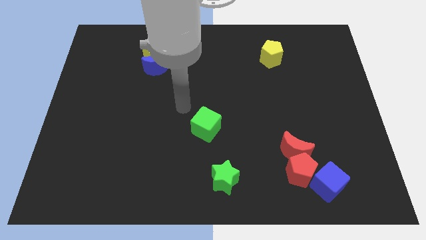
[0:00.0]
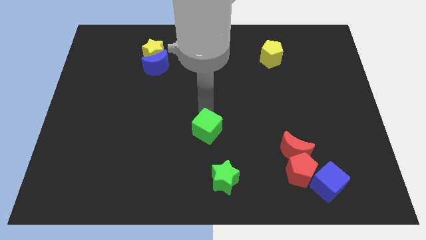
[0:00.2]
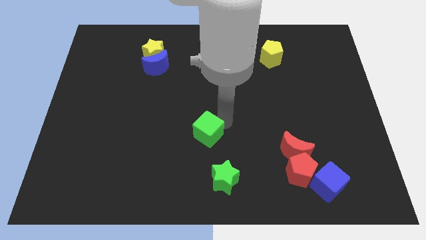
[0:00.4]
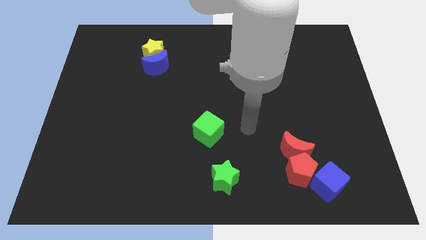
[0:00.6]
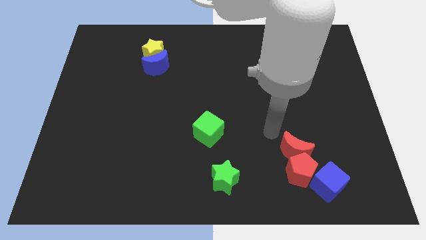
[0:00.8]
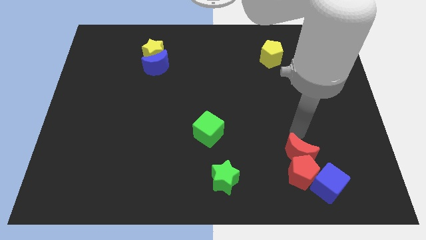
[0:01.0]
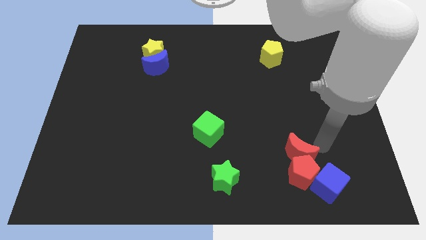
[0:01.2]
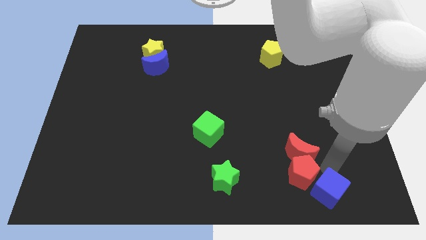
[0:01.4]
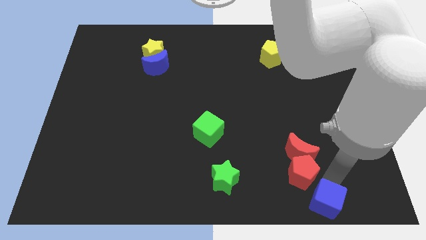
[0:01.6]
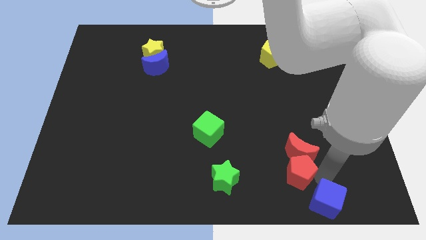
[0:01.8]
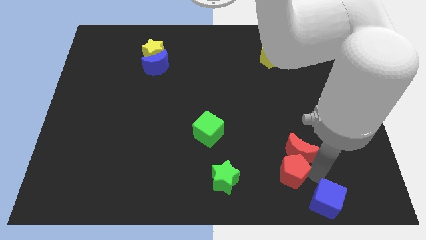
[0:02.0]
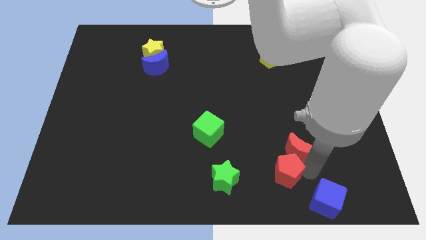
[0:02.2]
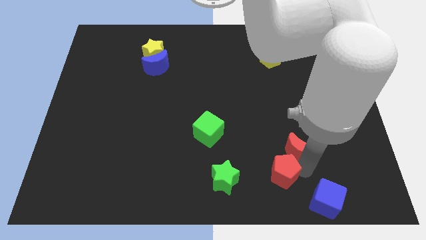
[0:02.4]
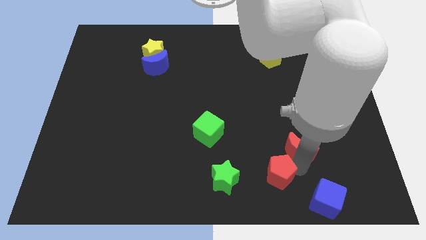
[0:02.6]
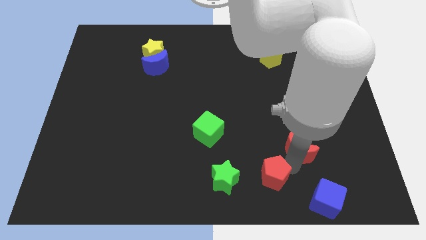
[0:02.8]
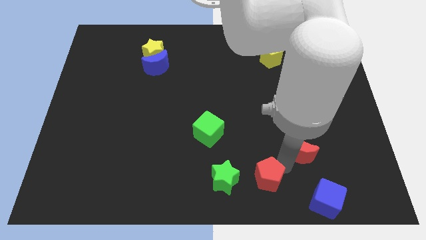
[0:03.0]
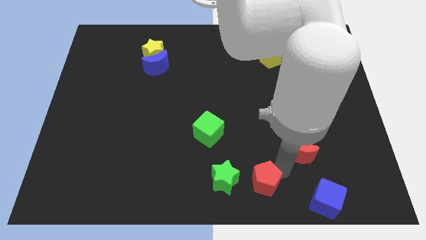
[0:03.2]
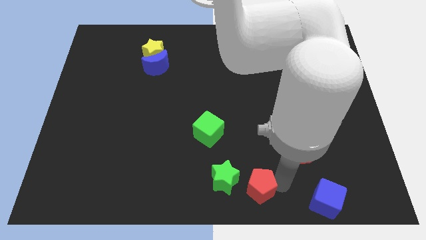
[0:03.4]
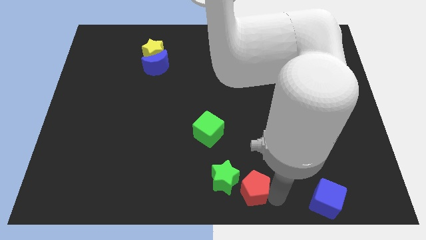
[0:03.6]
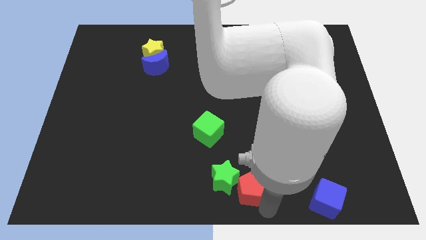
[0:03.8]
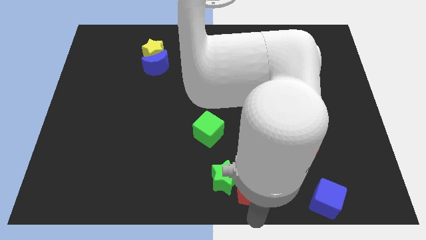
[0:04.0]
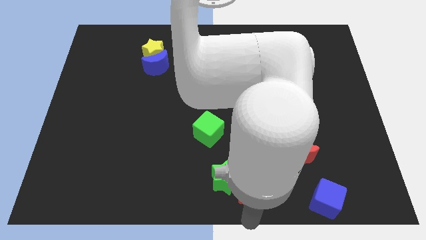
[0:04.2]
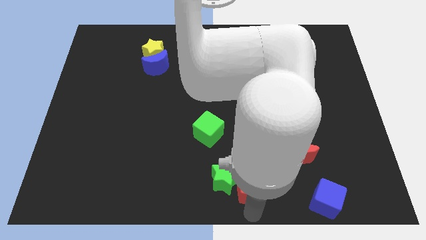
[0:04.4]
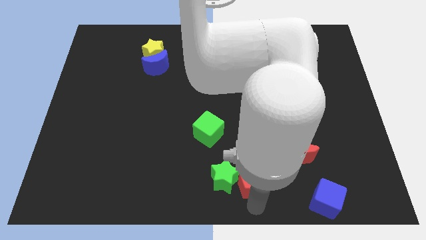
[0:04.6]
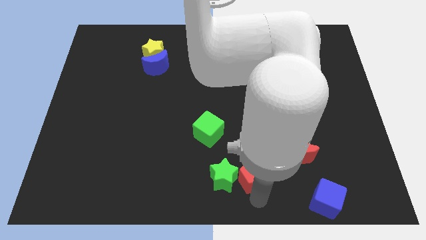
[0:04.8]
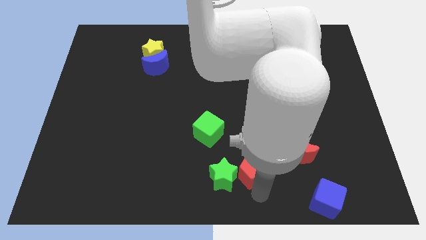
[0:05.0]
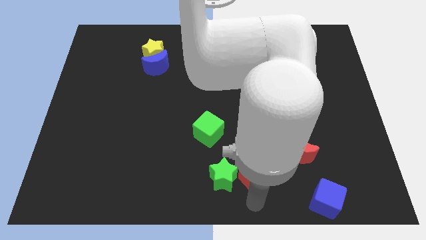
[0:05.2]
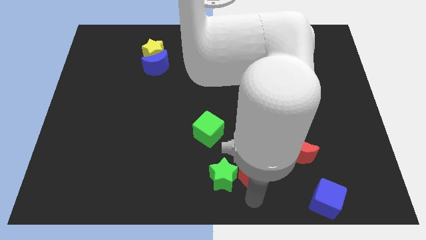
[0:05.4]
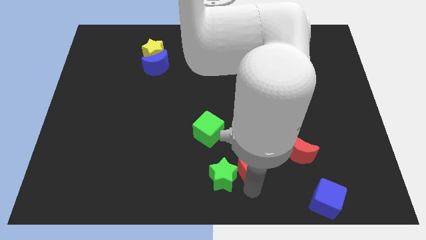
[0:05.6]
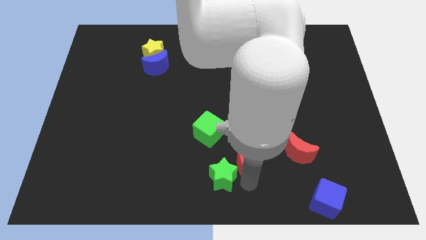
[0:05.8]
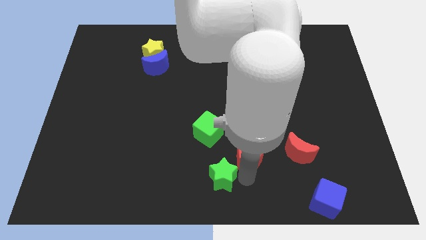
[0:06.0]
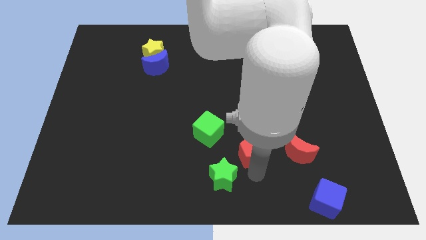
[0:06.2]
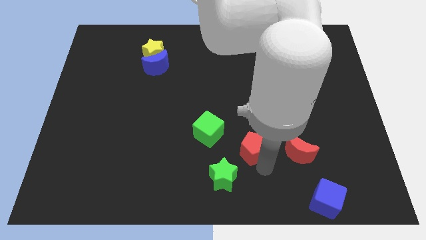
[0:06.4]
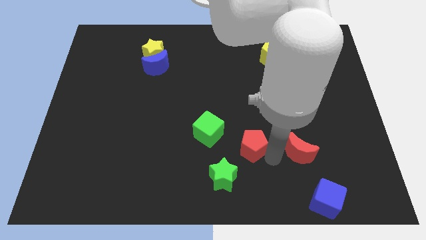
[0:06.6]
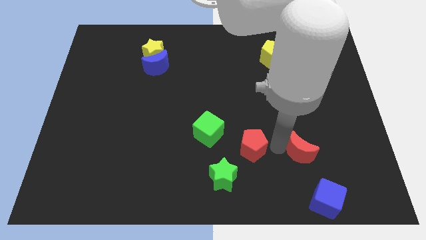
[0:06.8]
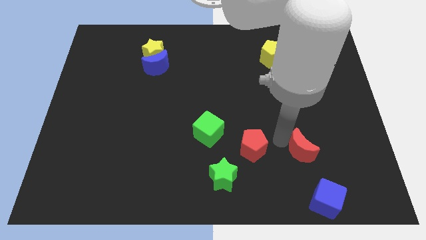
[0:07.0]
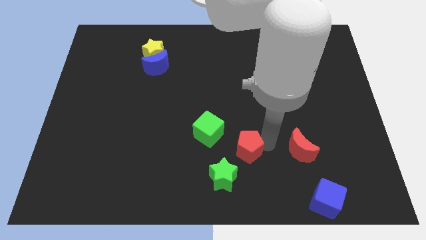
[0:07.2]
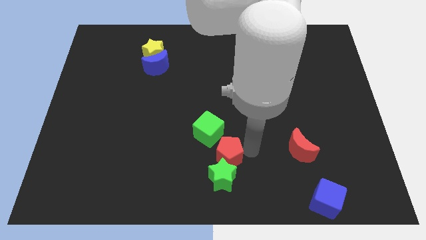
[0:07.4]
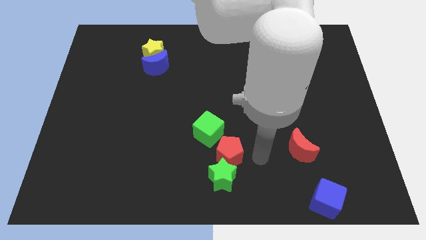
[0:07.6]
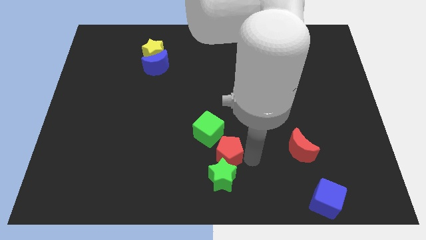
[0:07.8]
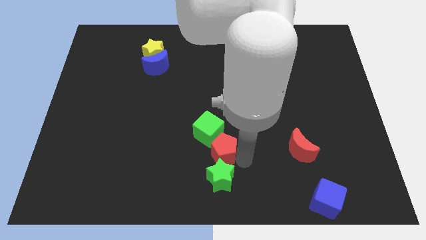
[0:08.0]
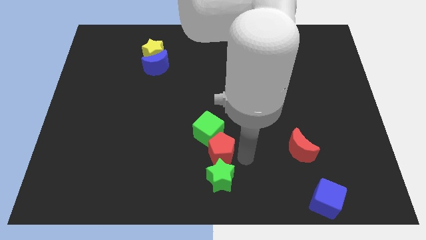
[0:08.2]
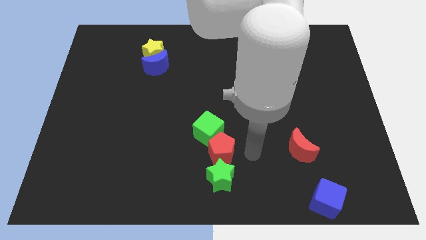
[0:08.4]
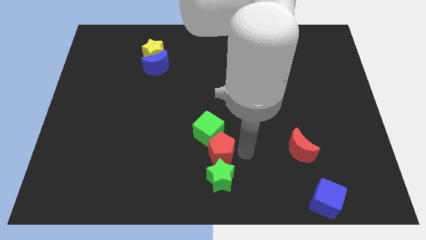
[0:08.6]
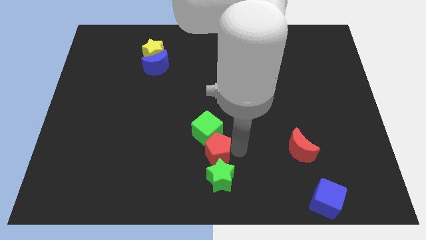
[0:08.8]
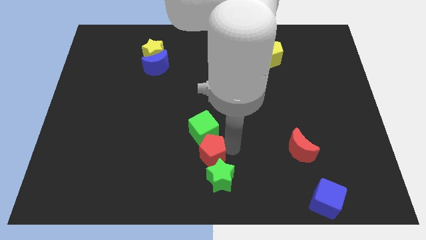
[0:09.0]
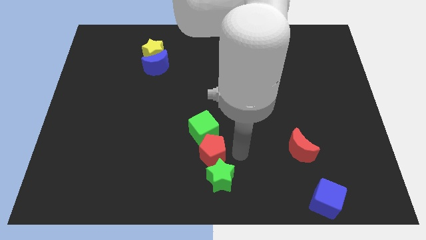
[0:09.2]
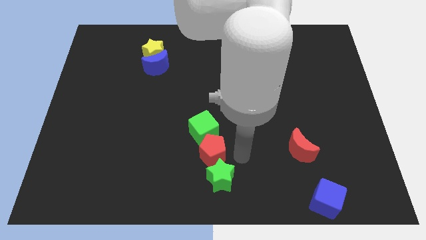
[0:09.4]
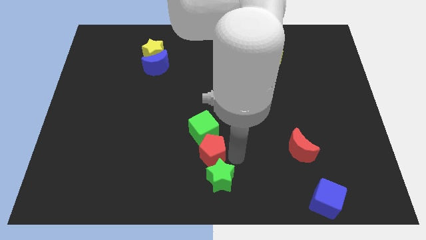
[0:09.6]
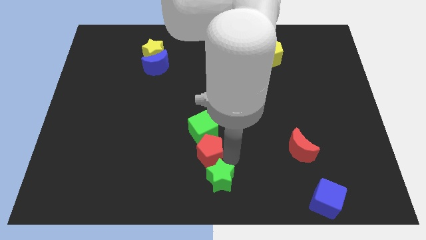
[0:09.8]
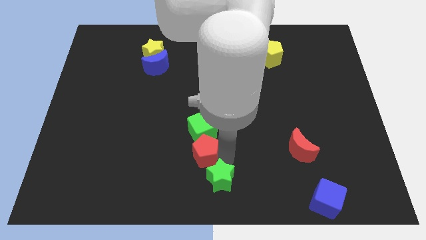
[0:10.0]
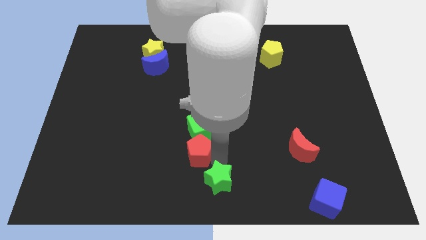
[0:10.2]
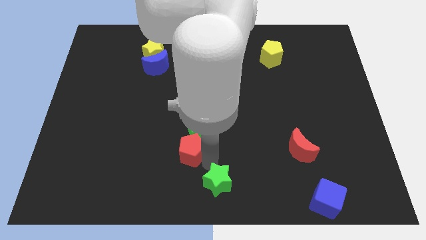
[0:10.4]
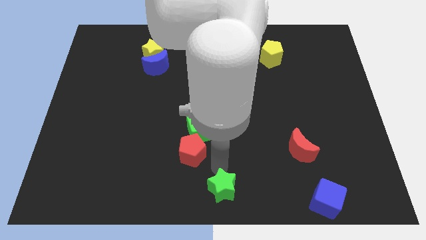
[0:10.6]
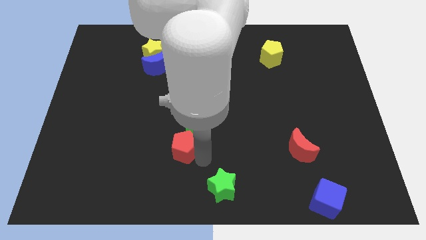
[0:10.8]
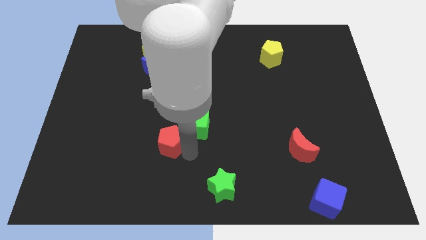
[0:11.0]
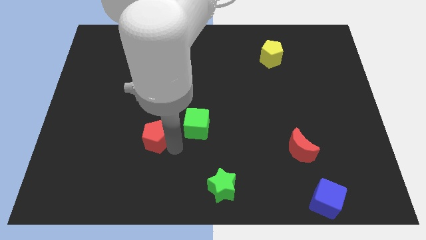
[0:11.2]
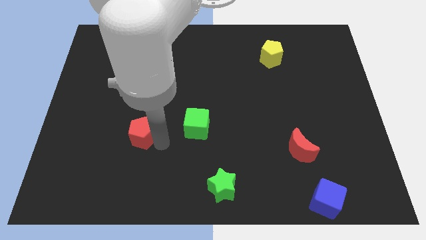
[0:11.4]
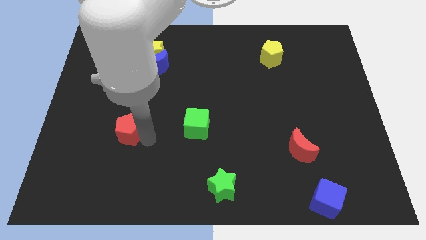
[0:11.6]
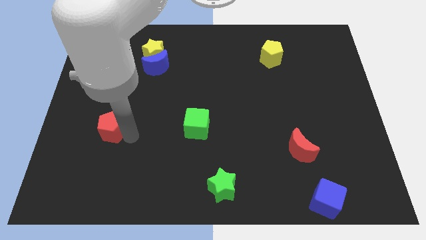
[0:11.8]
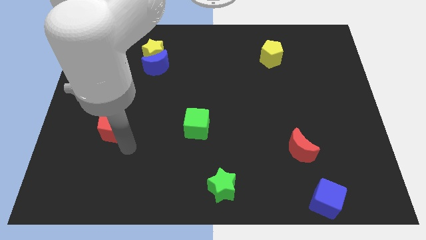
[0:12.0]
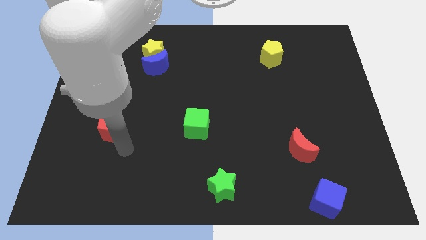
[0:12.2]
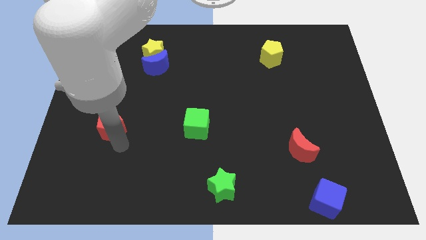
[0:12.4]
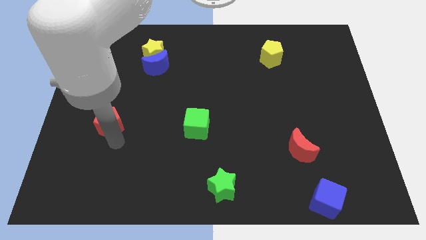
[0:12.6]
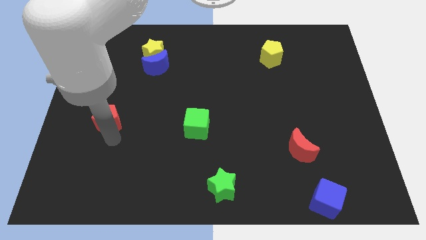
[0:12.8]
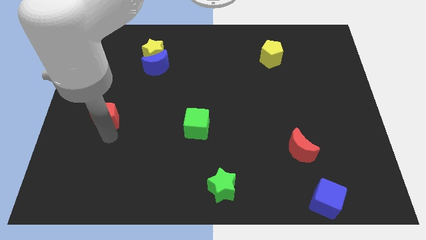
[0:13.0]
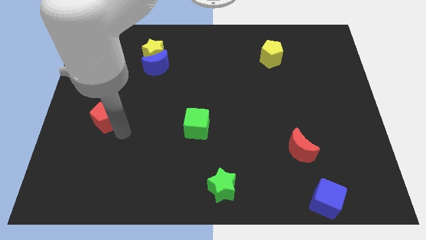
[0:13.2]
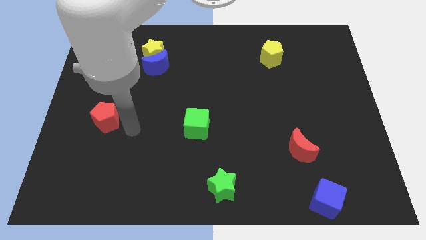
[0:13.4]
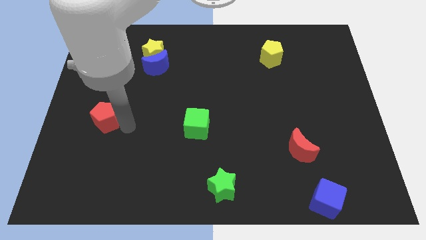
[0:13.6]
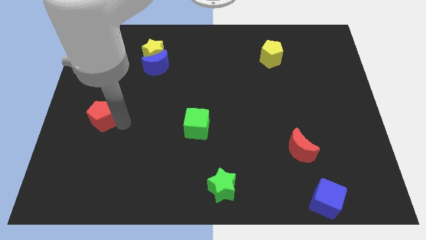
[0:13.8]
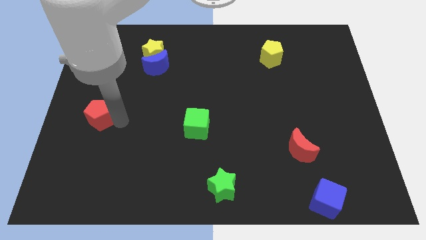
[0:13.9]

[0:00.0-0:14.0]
push the red pentagon to the left side

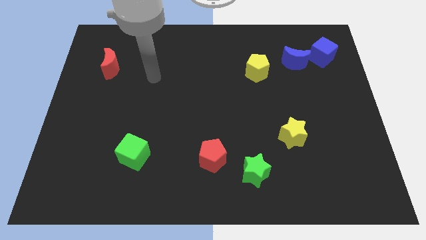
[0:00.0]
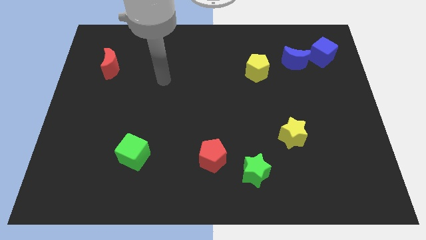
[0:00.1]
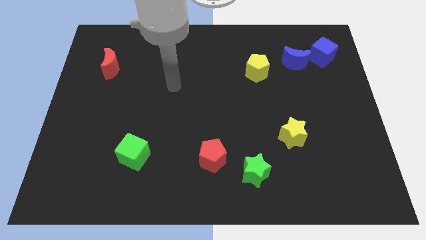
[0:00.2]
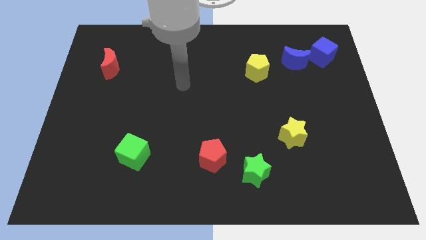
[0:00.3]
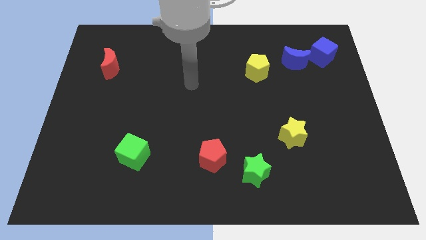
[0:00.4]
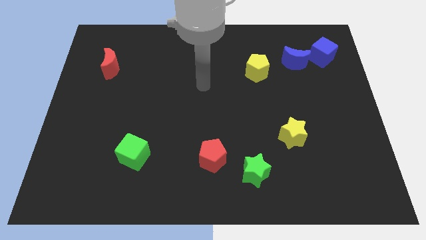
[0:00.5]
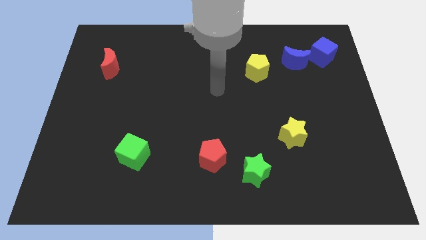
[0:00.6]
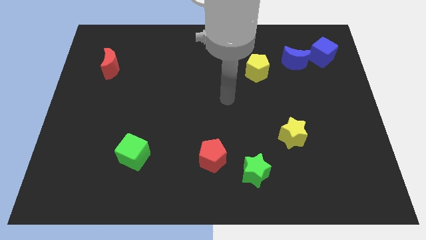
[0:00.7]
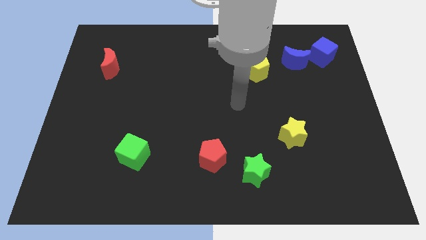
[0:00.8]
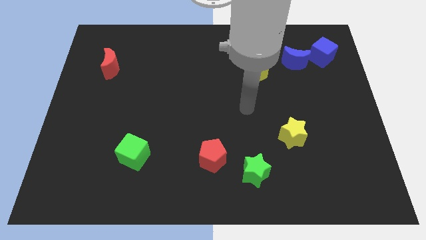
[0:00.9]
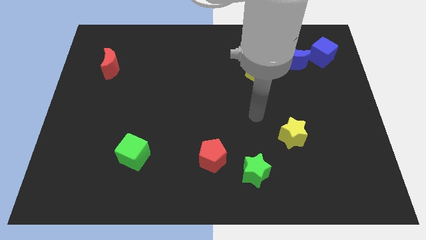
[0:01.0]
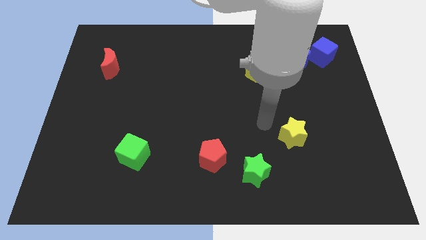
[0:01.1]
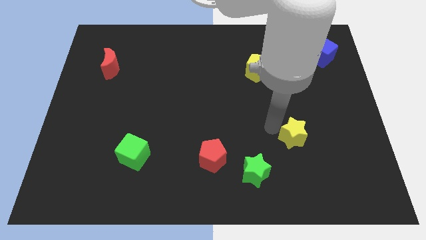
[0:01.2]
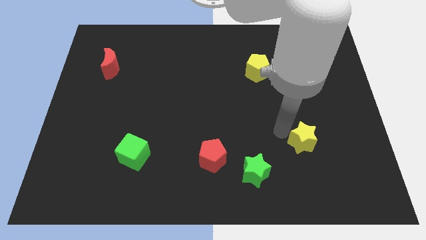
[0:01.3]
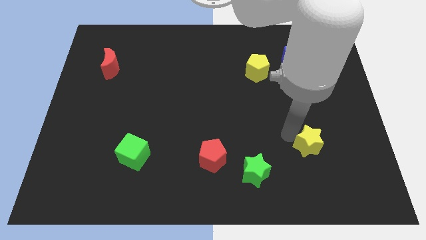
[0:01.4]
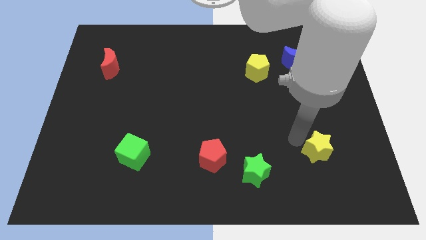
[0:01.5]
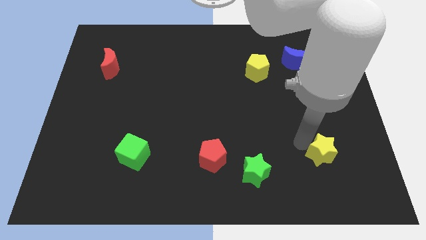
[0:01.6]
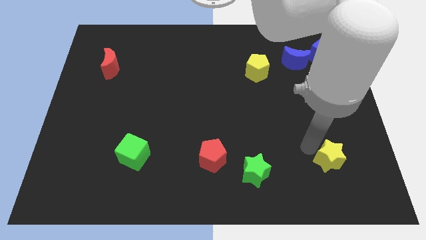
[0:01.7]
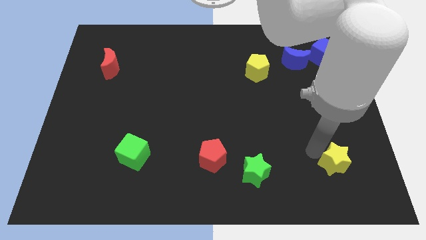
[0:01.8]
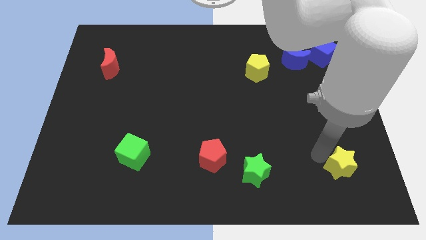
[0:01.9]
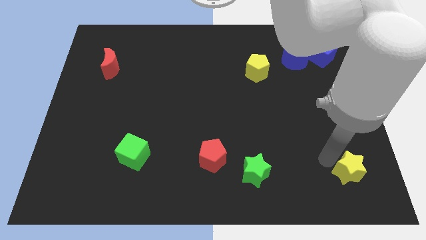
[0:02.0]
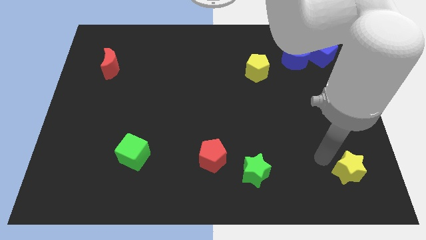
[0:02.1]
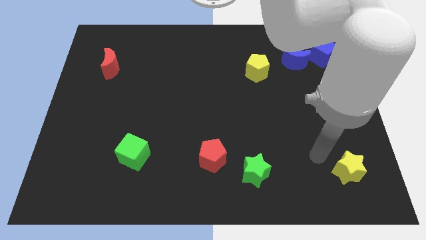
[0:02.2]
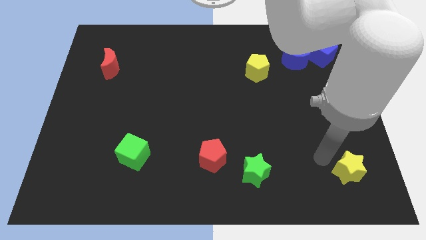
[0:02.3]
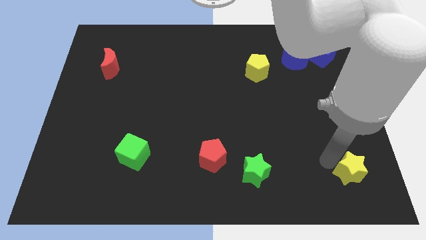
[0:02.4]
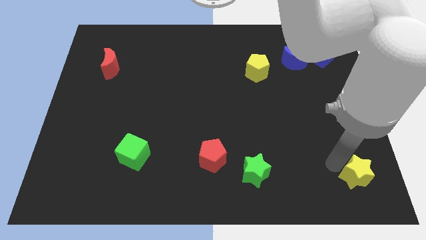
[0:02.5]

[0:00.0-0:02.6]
push the yellow star to the bottom right corner
